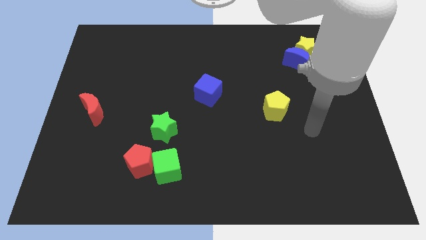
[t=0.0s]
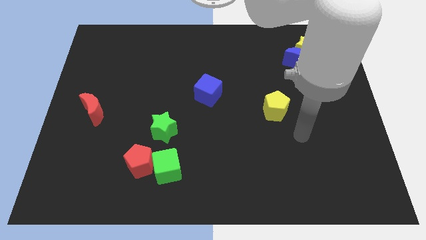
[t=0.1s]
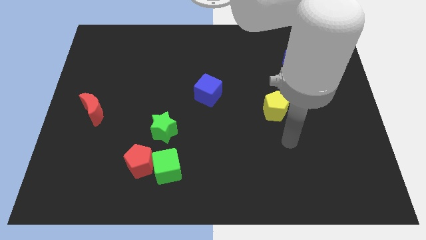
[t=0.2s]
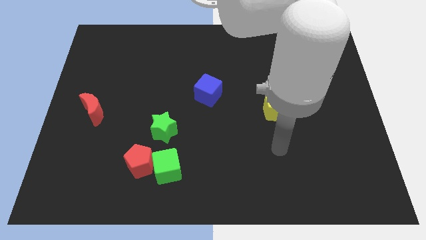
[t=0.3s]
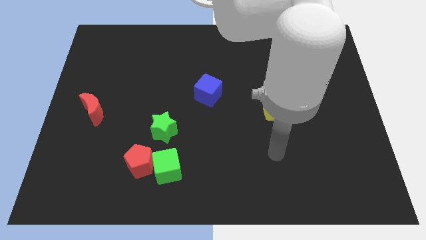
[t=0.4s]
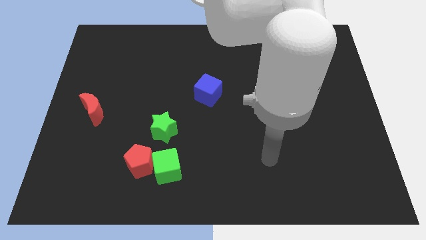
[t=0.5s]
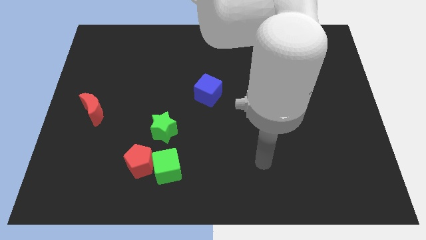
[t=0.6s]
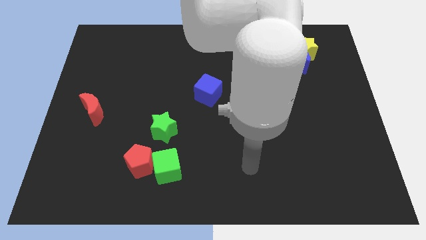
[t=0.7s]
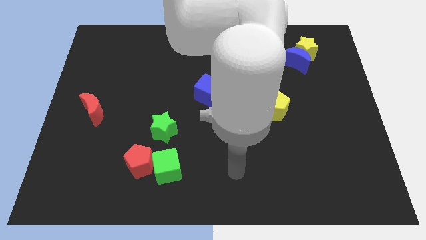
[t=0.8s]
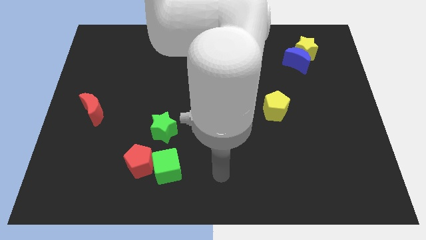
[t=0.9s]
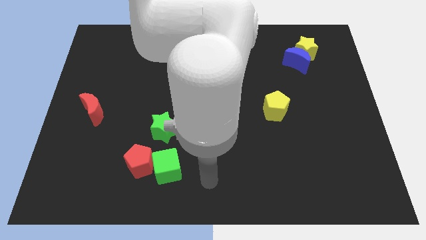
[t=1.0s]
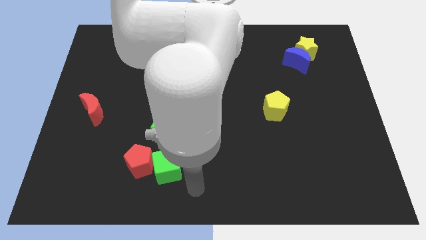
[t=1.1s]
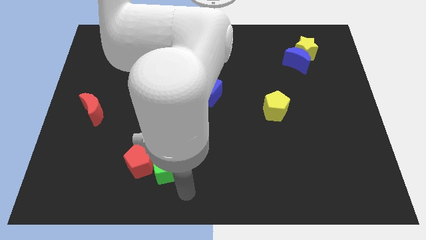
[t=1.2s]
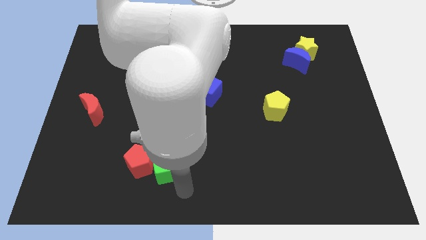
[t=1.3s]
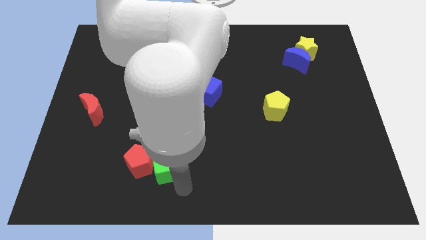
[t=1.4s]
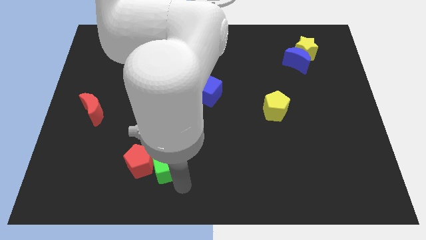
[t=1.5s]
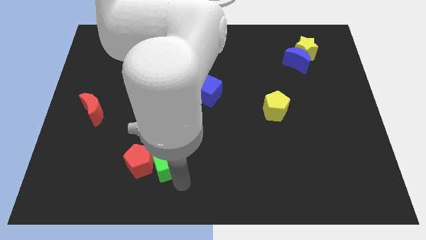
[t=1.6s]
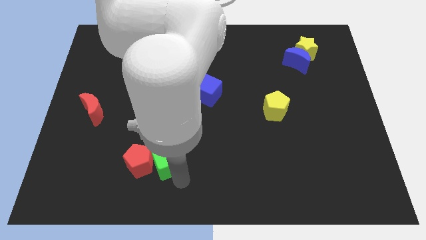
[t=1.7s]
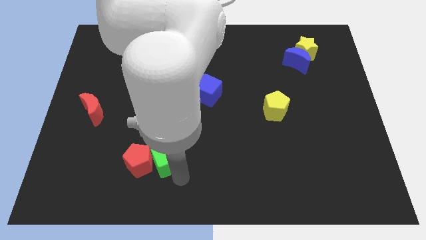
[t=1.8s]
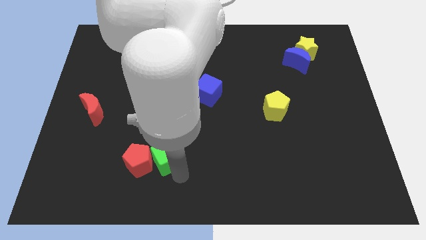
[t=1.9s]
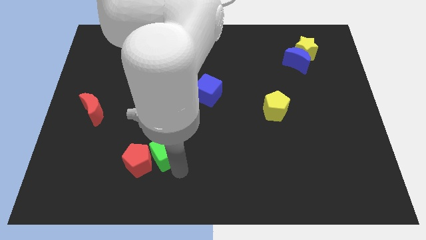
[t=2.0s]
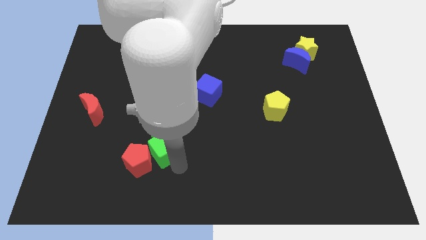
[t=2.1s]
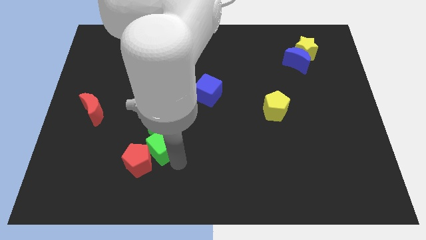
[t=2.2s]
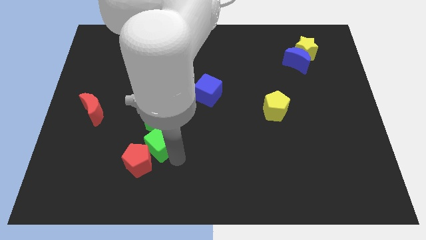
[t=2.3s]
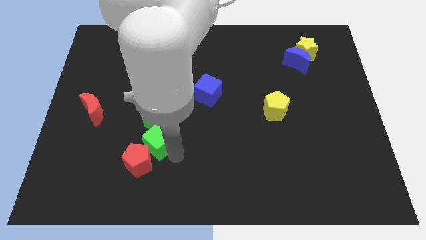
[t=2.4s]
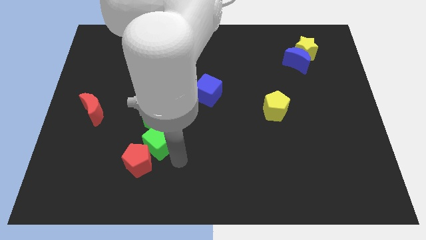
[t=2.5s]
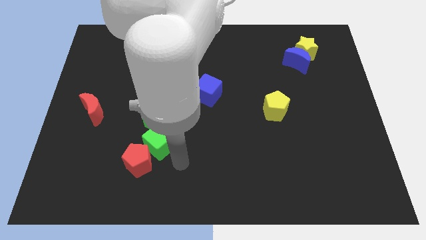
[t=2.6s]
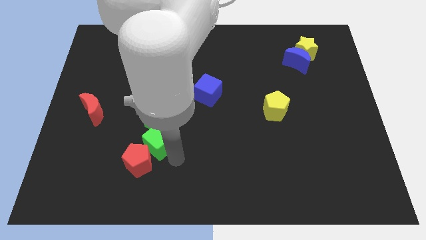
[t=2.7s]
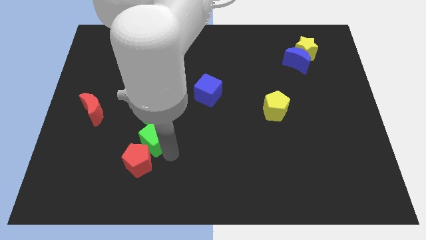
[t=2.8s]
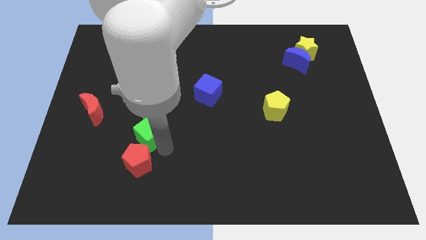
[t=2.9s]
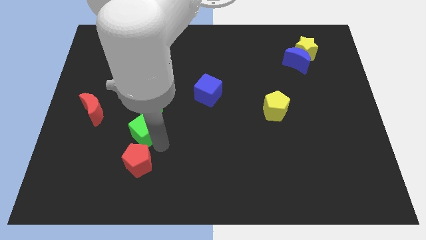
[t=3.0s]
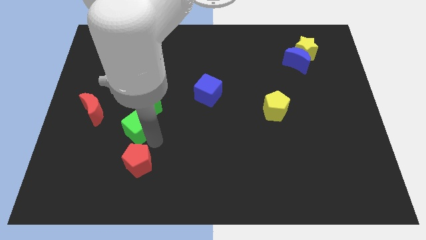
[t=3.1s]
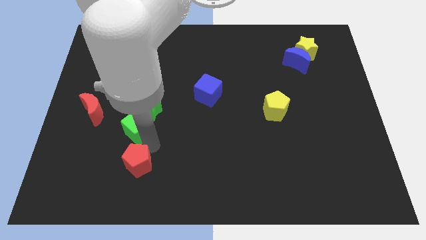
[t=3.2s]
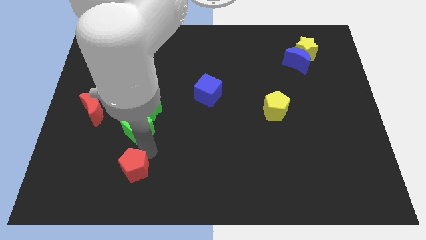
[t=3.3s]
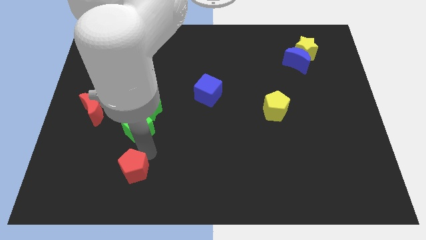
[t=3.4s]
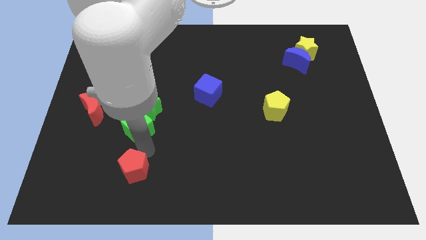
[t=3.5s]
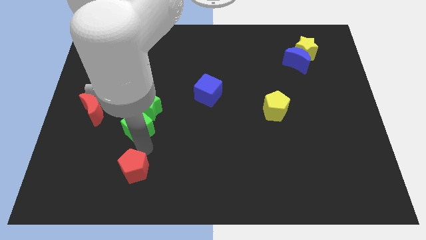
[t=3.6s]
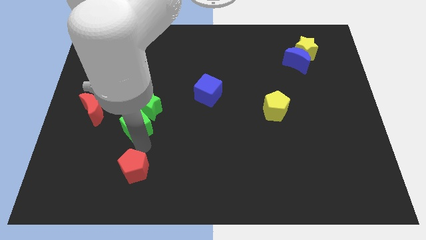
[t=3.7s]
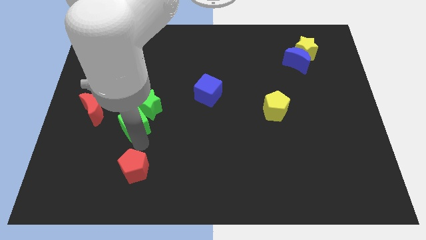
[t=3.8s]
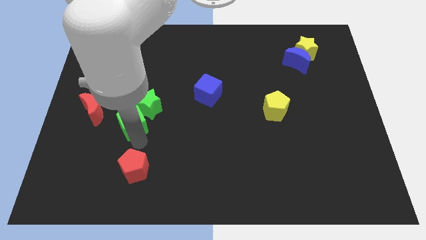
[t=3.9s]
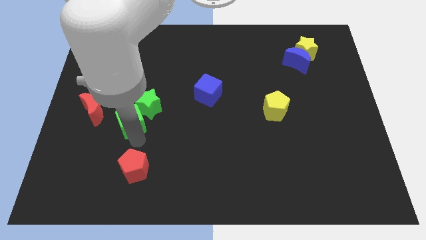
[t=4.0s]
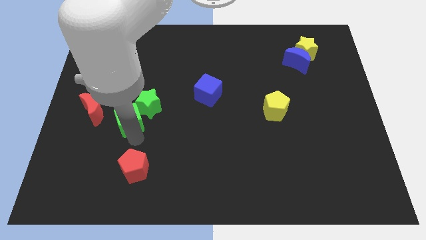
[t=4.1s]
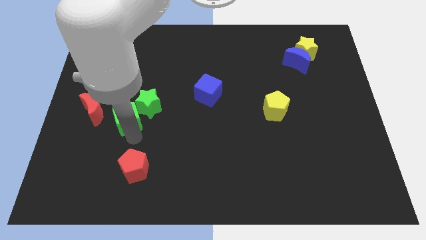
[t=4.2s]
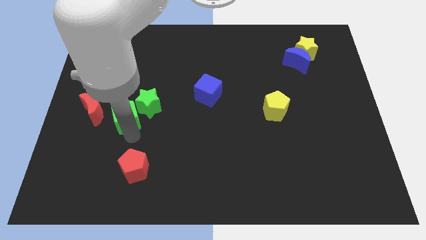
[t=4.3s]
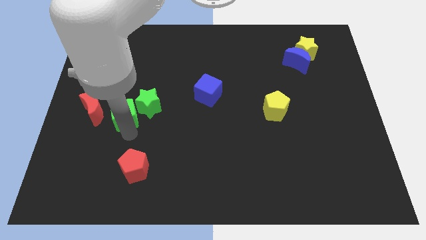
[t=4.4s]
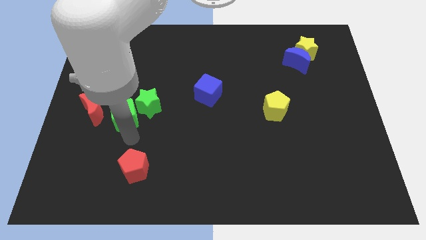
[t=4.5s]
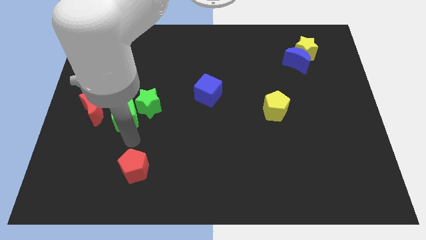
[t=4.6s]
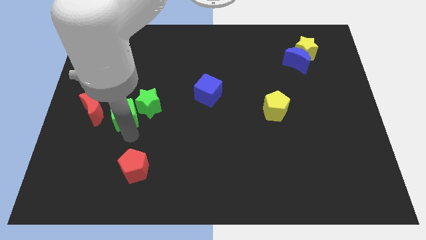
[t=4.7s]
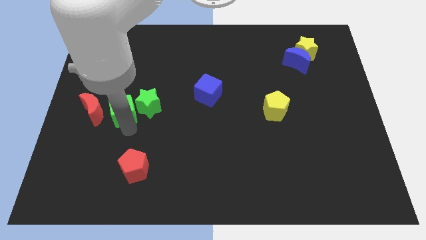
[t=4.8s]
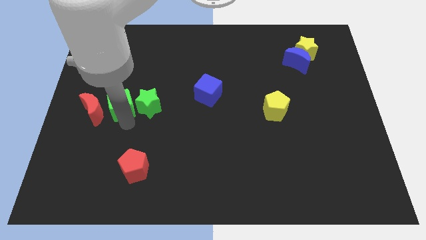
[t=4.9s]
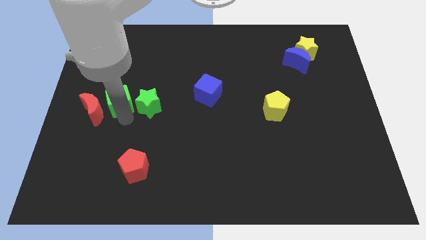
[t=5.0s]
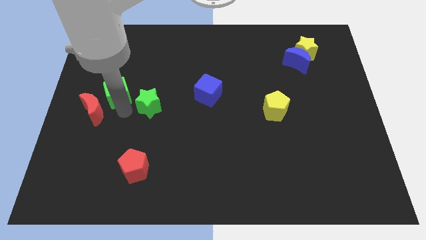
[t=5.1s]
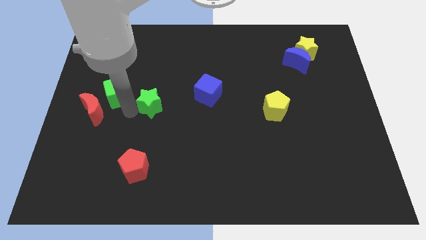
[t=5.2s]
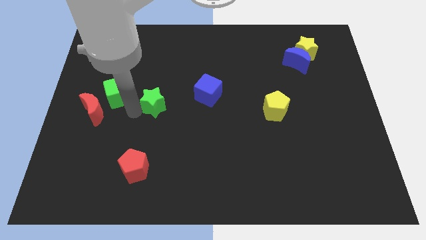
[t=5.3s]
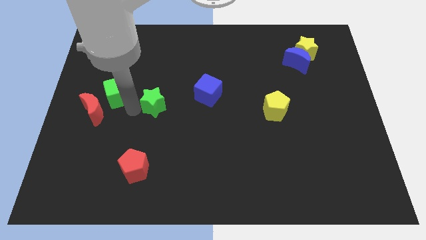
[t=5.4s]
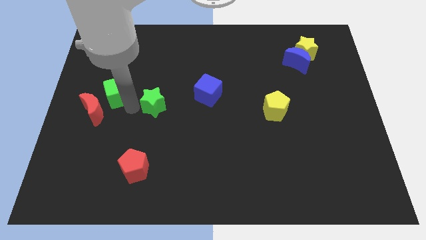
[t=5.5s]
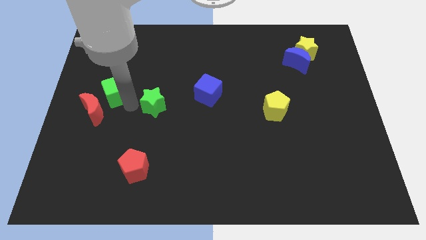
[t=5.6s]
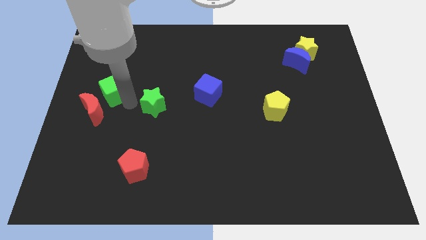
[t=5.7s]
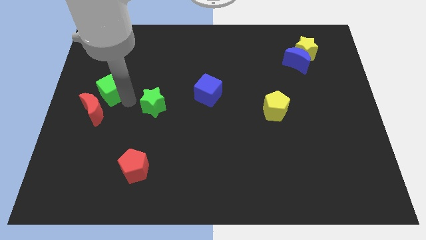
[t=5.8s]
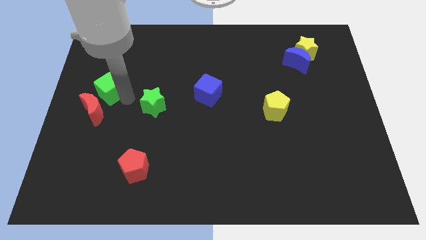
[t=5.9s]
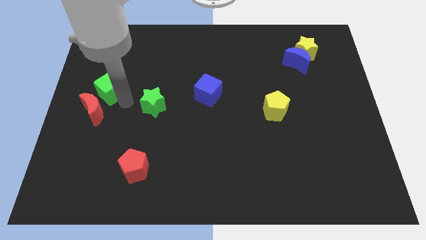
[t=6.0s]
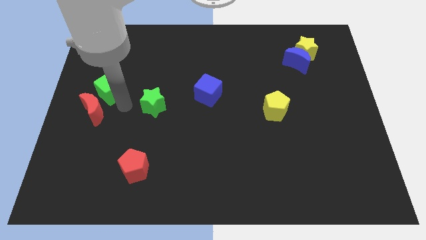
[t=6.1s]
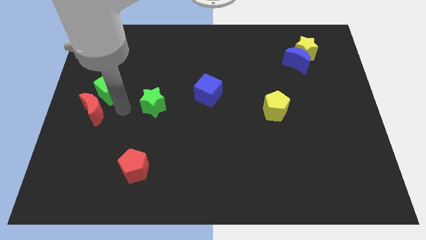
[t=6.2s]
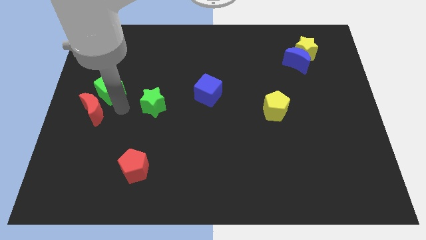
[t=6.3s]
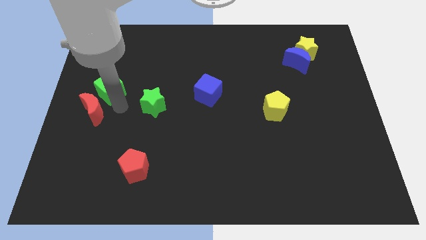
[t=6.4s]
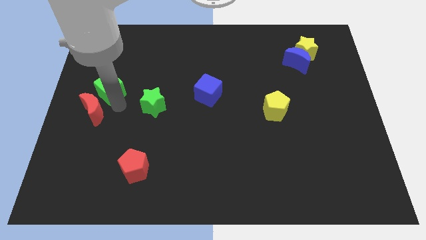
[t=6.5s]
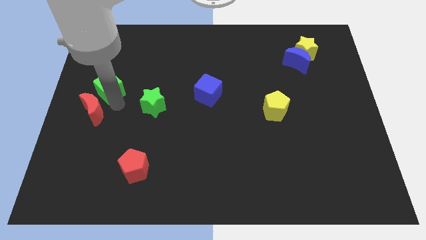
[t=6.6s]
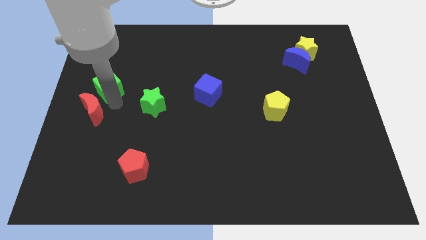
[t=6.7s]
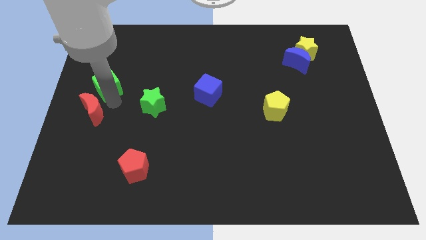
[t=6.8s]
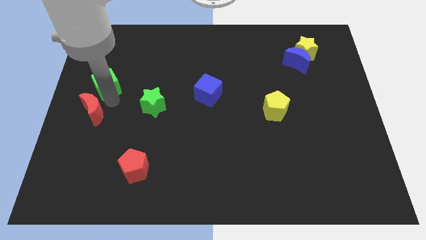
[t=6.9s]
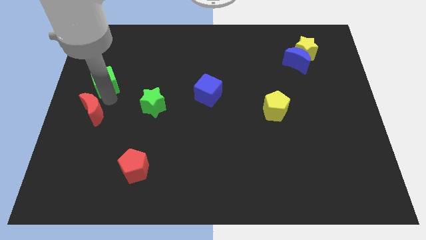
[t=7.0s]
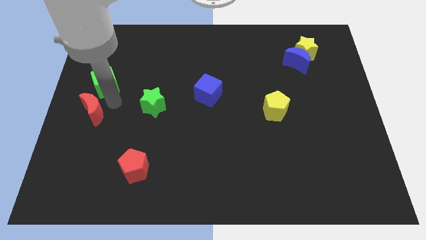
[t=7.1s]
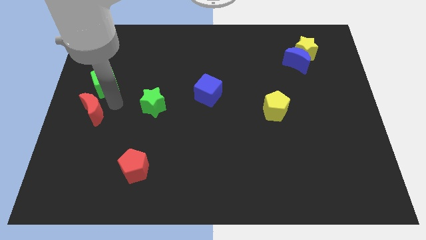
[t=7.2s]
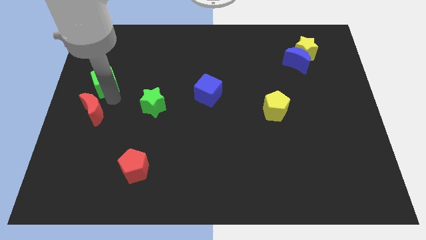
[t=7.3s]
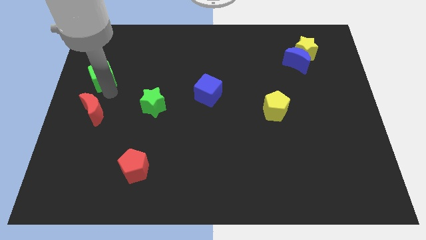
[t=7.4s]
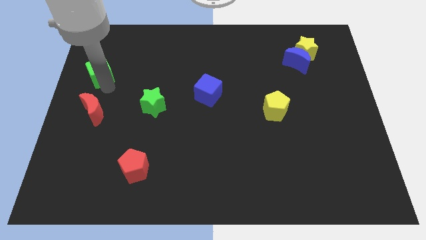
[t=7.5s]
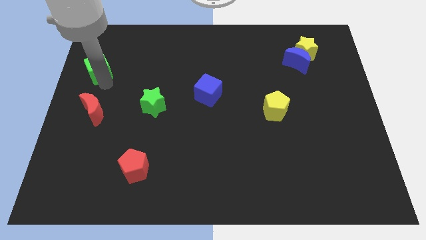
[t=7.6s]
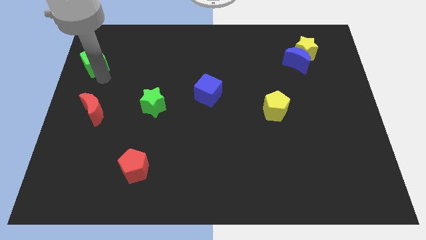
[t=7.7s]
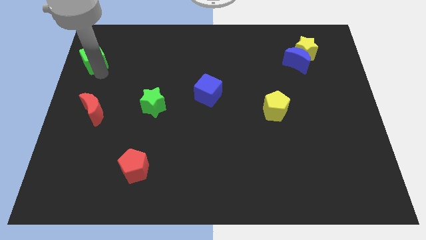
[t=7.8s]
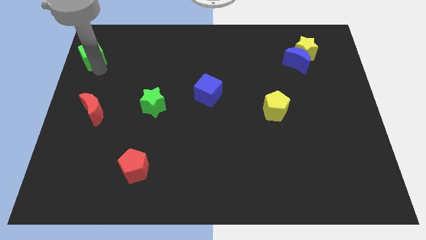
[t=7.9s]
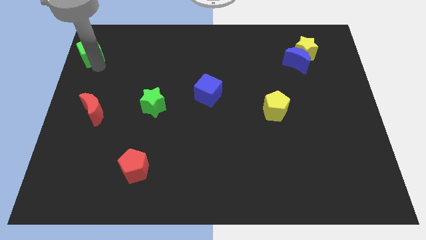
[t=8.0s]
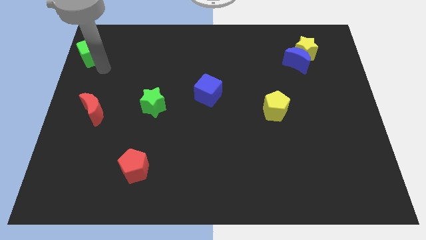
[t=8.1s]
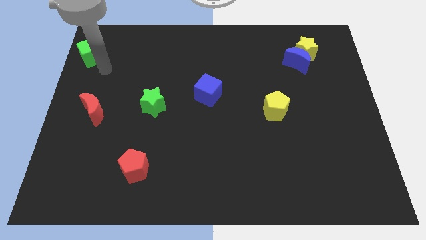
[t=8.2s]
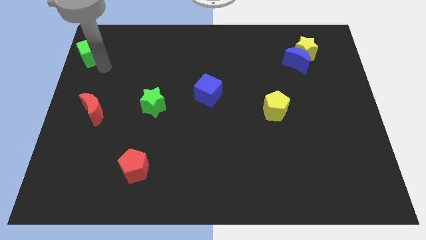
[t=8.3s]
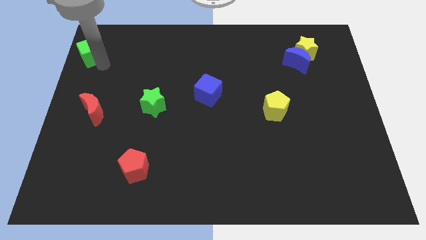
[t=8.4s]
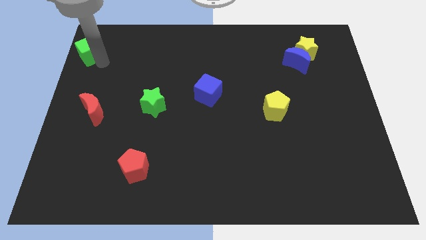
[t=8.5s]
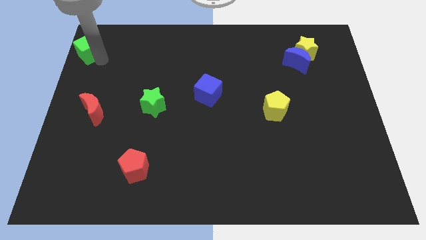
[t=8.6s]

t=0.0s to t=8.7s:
put the green cube to the upper left corner
